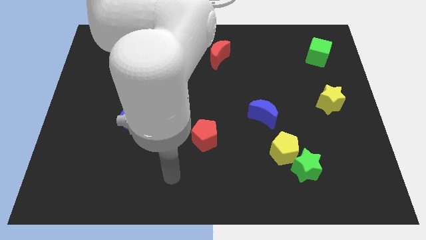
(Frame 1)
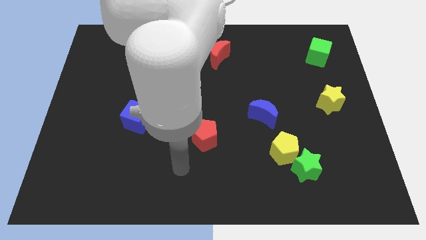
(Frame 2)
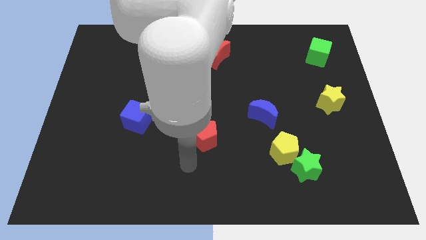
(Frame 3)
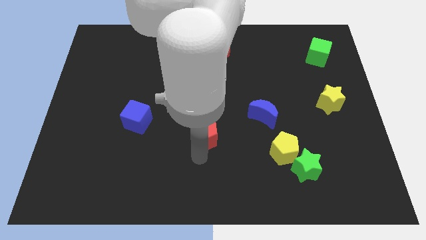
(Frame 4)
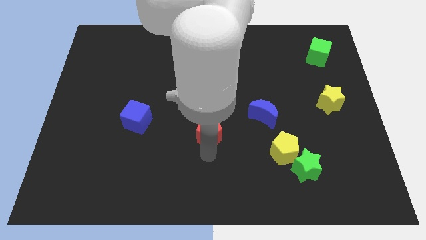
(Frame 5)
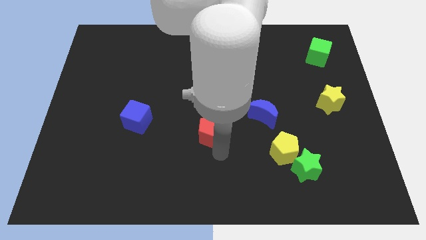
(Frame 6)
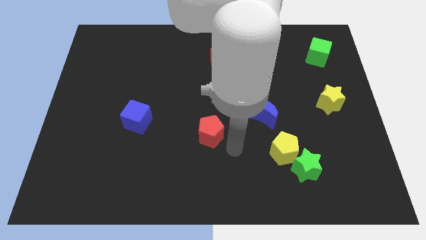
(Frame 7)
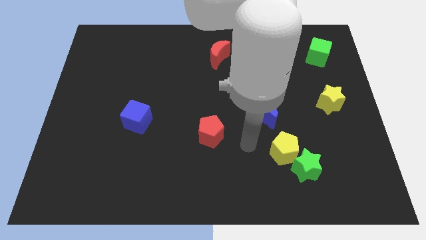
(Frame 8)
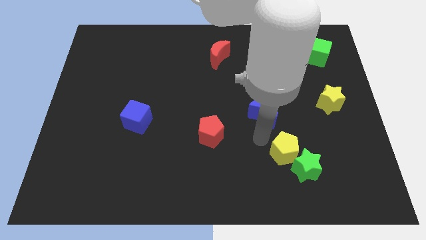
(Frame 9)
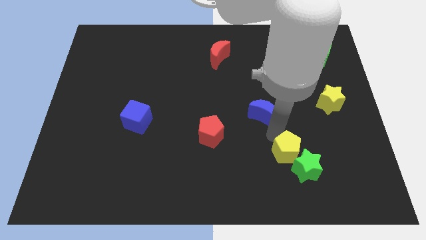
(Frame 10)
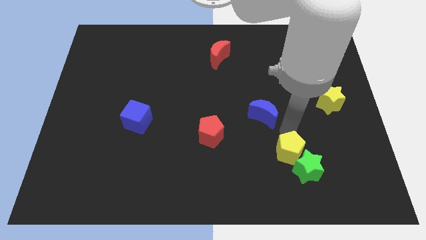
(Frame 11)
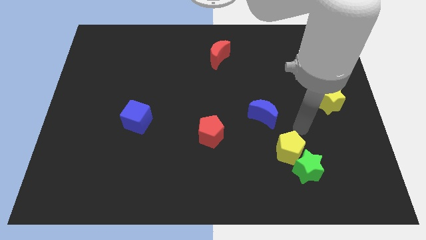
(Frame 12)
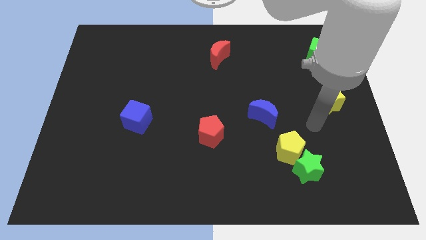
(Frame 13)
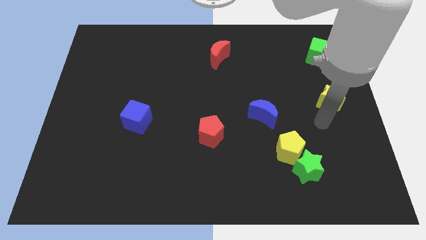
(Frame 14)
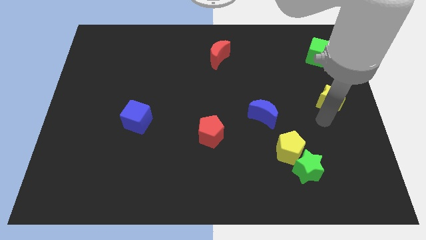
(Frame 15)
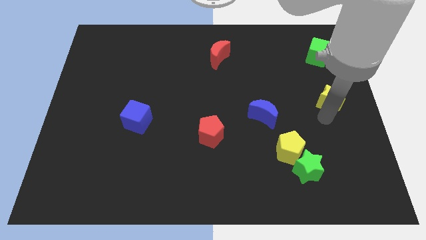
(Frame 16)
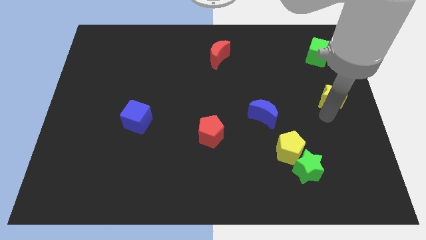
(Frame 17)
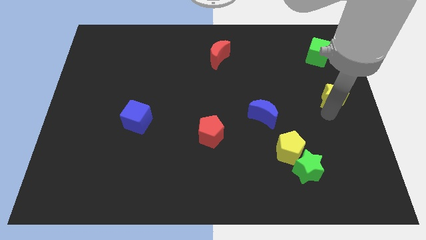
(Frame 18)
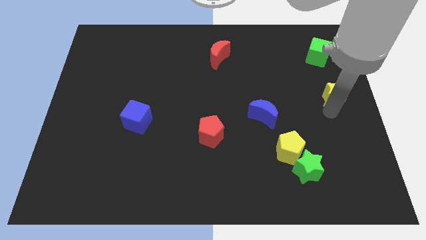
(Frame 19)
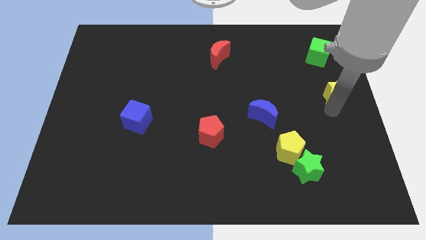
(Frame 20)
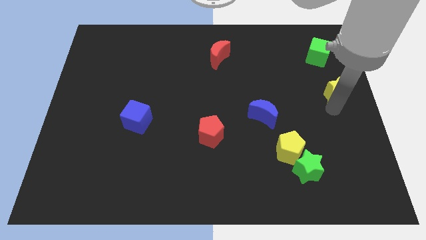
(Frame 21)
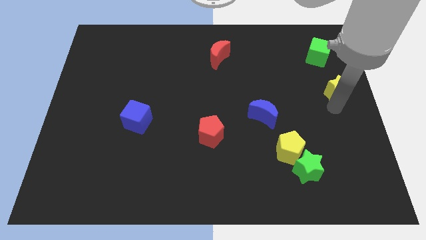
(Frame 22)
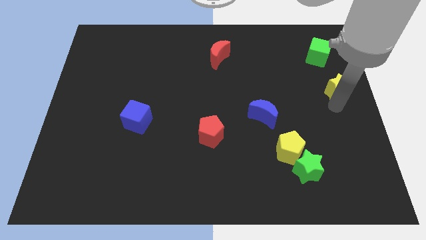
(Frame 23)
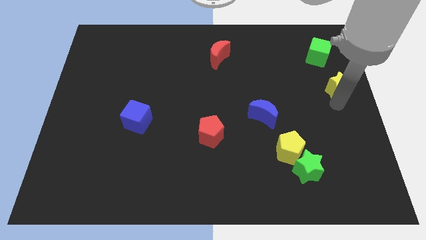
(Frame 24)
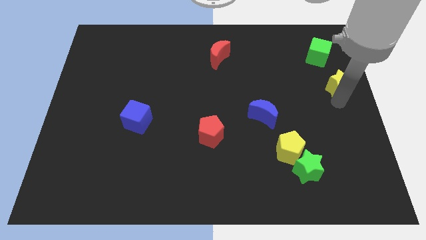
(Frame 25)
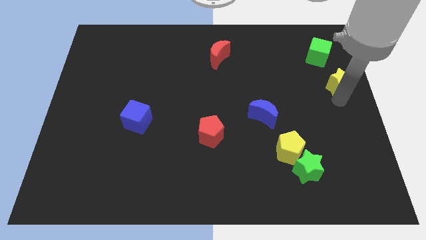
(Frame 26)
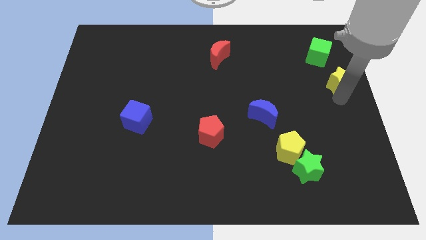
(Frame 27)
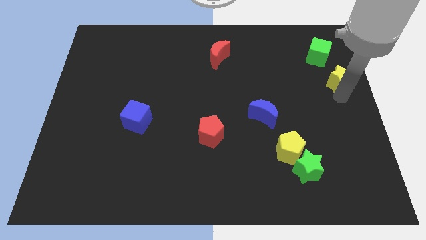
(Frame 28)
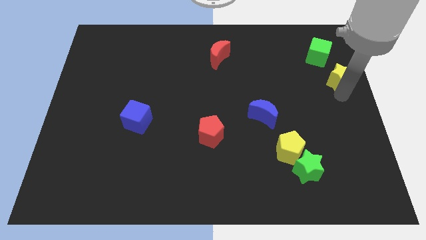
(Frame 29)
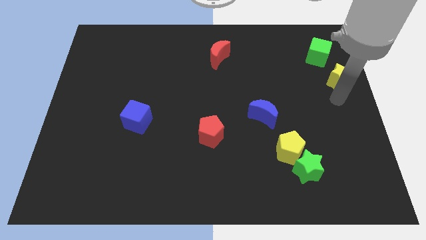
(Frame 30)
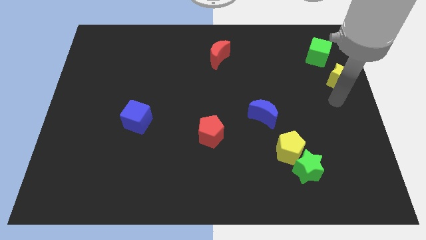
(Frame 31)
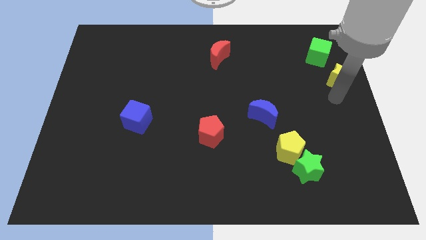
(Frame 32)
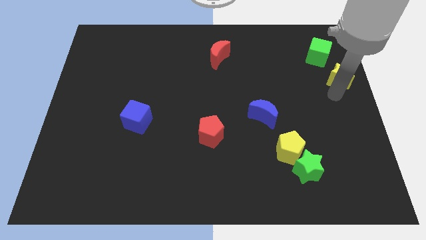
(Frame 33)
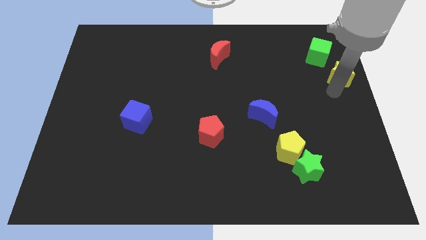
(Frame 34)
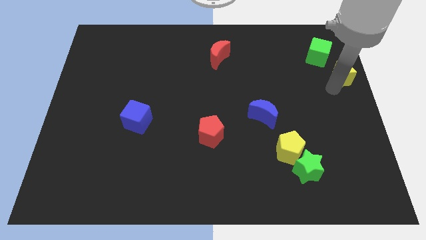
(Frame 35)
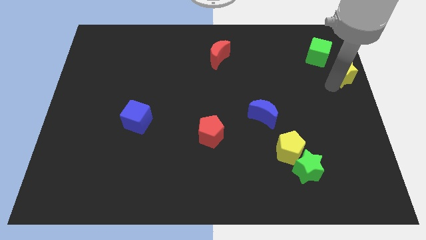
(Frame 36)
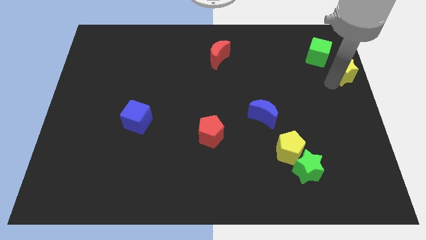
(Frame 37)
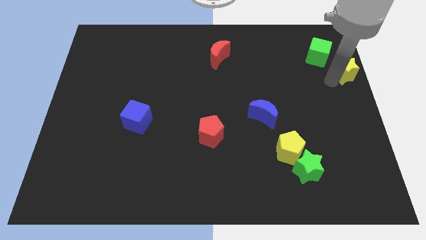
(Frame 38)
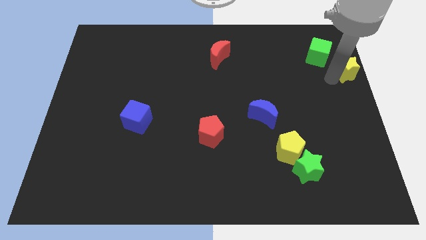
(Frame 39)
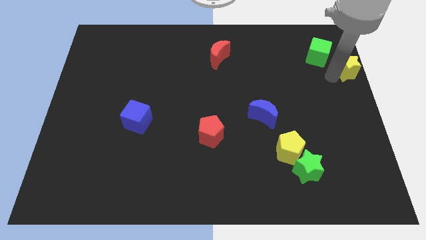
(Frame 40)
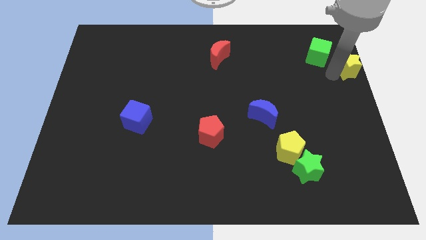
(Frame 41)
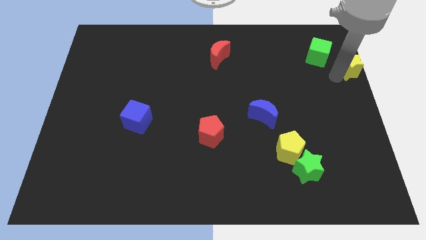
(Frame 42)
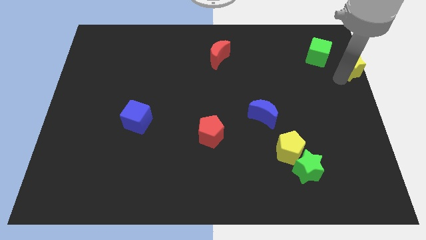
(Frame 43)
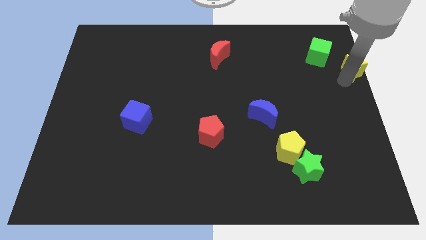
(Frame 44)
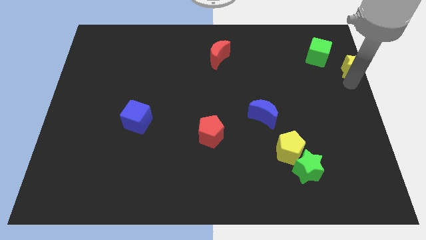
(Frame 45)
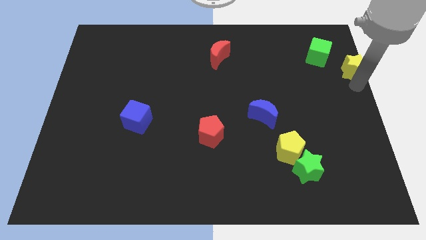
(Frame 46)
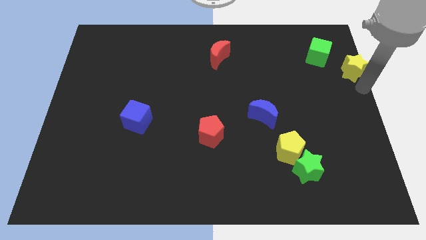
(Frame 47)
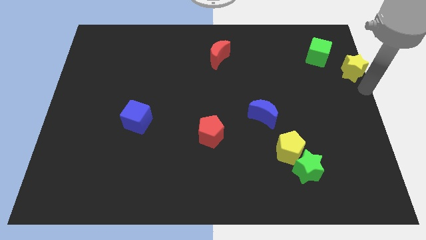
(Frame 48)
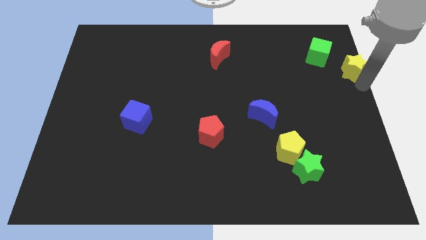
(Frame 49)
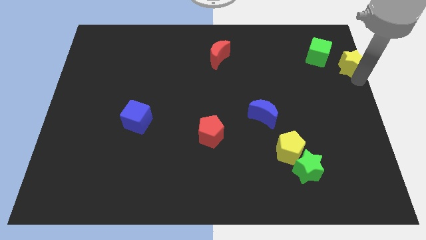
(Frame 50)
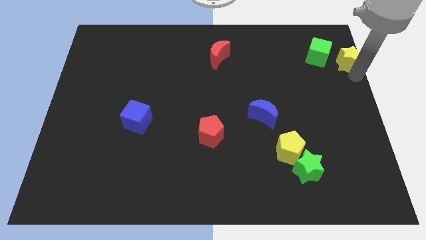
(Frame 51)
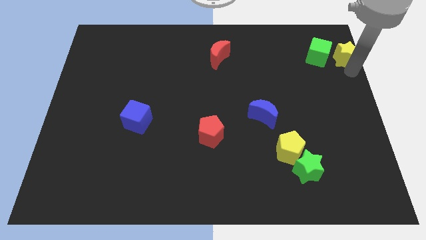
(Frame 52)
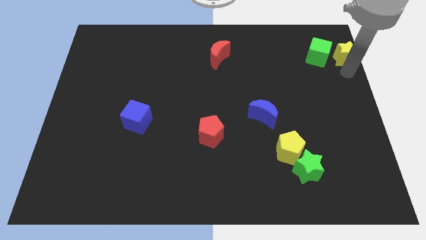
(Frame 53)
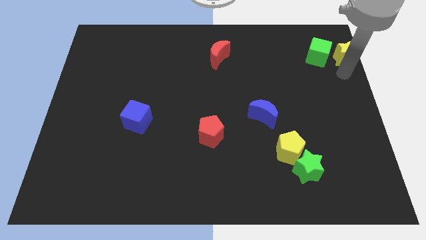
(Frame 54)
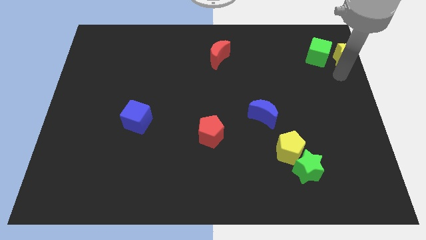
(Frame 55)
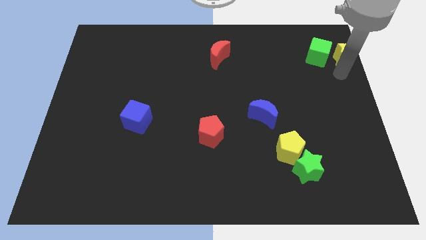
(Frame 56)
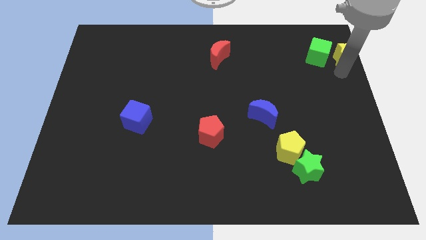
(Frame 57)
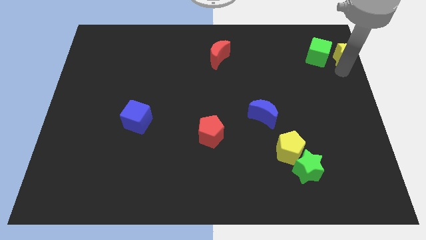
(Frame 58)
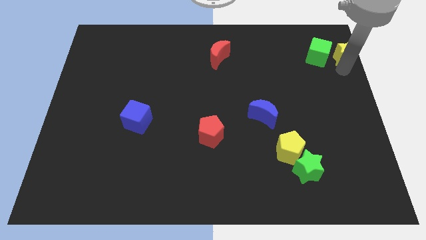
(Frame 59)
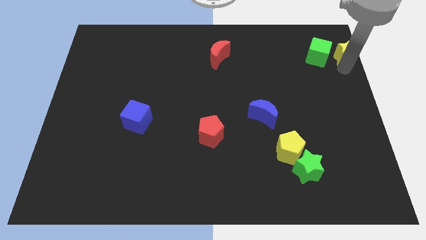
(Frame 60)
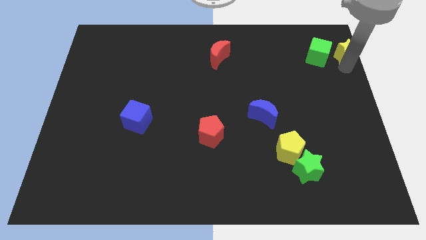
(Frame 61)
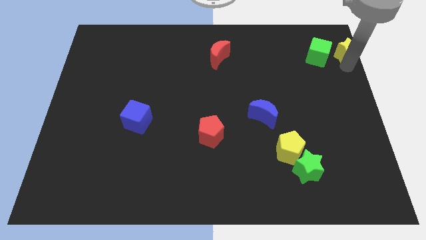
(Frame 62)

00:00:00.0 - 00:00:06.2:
slide the yellow star to the upper right corner
